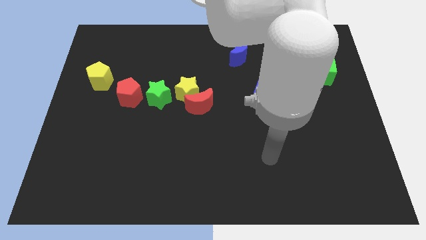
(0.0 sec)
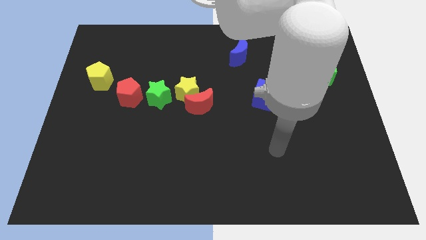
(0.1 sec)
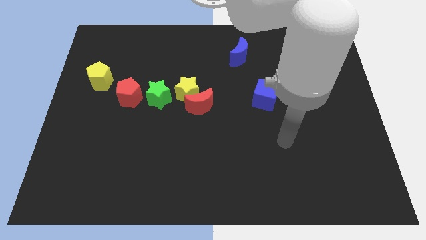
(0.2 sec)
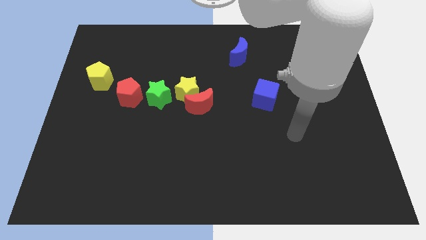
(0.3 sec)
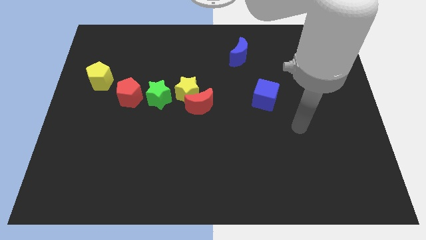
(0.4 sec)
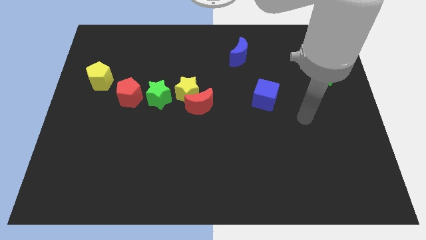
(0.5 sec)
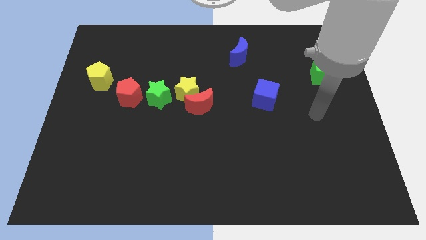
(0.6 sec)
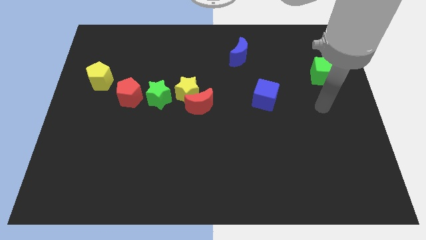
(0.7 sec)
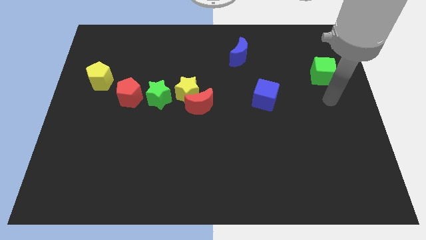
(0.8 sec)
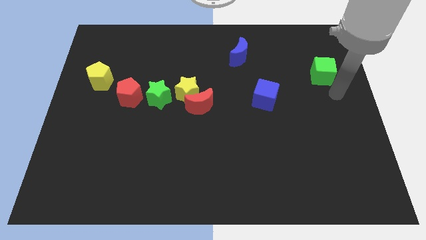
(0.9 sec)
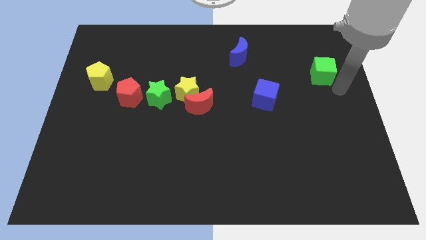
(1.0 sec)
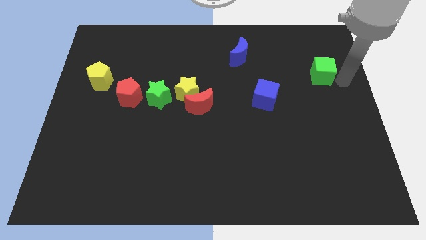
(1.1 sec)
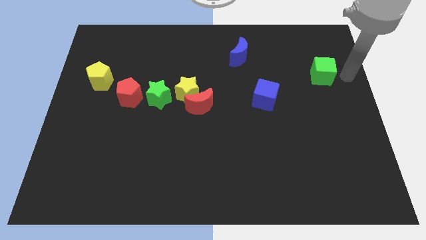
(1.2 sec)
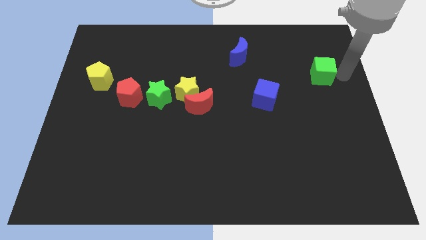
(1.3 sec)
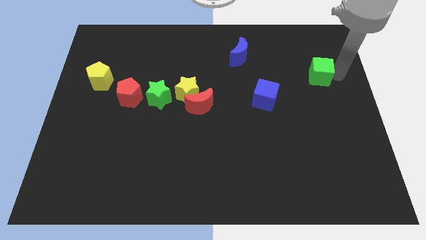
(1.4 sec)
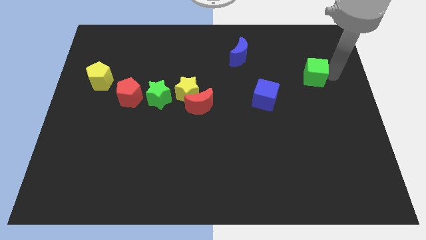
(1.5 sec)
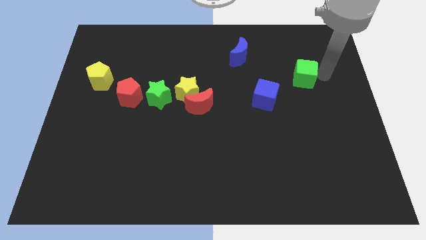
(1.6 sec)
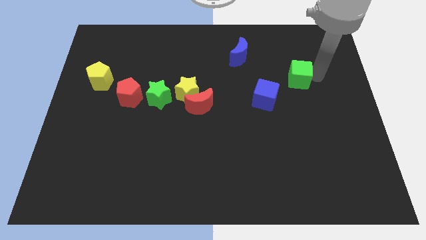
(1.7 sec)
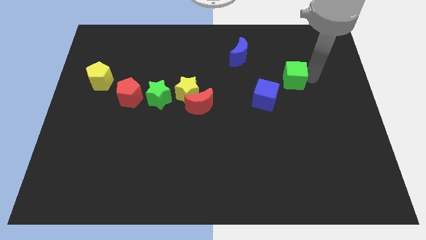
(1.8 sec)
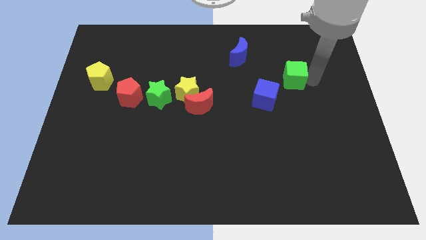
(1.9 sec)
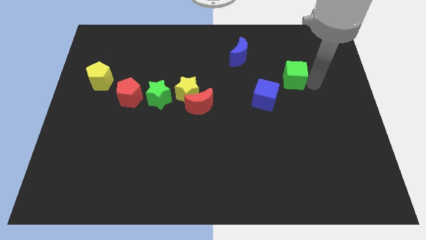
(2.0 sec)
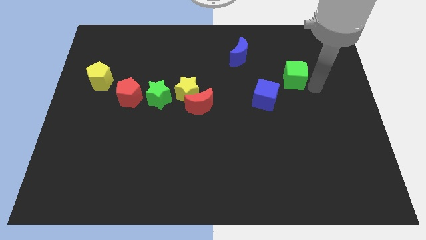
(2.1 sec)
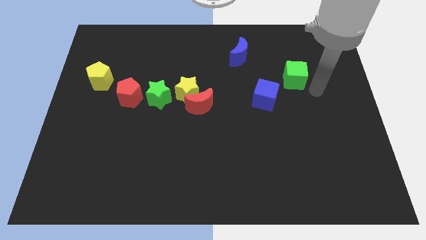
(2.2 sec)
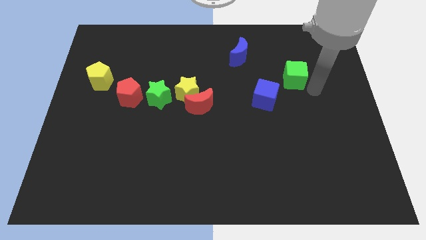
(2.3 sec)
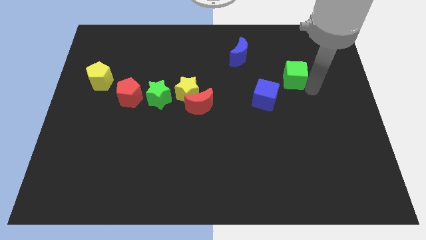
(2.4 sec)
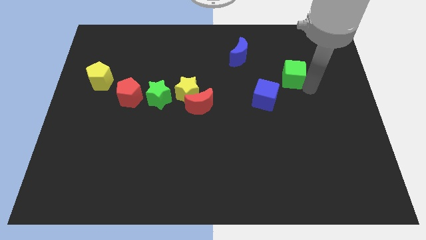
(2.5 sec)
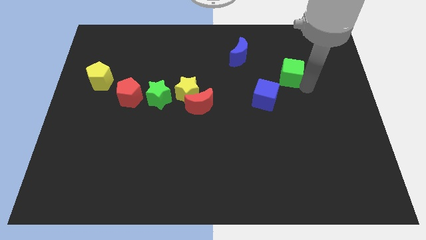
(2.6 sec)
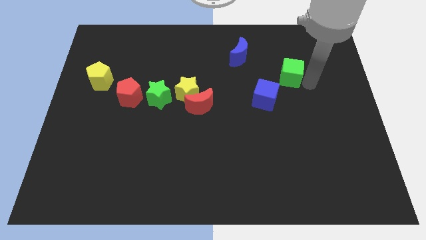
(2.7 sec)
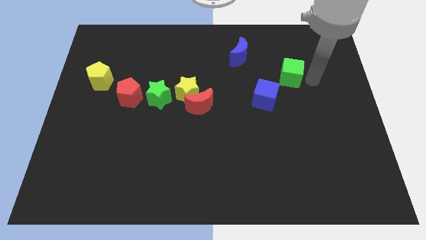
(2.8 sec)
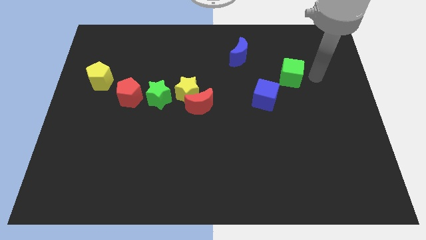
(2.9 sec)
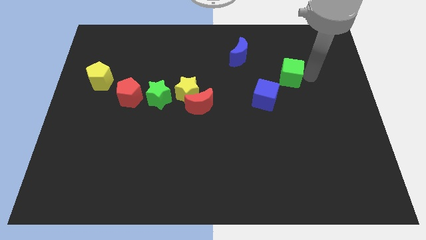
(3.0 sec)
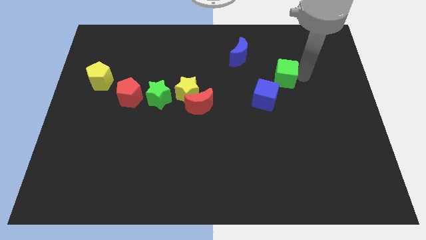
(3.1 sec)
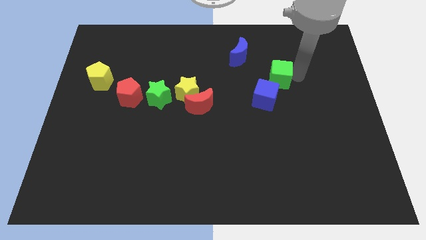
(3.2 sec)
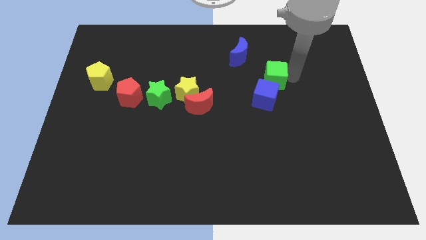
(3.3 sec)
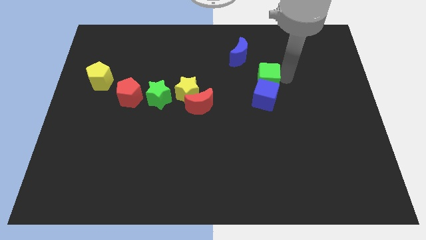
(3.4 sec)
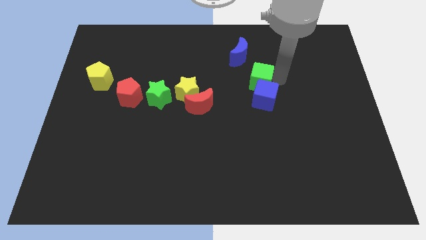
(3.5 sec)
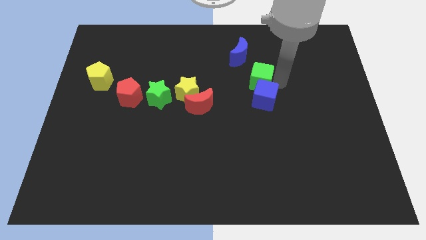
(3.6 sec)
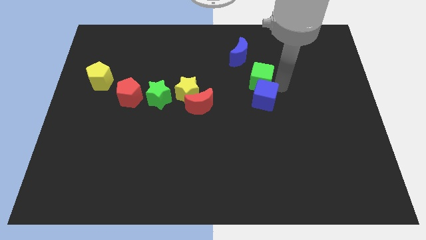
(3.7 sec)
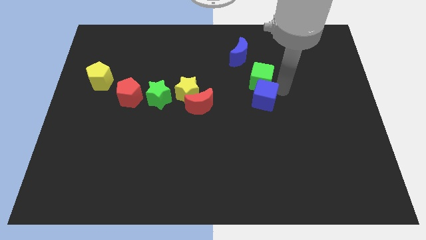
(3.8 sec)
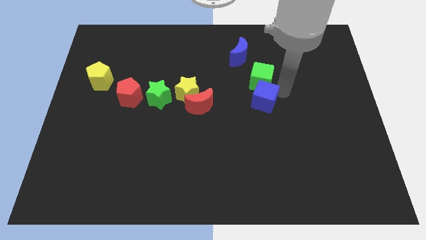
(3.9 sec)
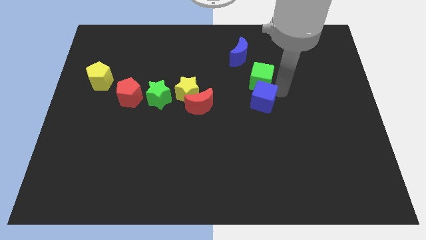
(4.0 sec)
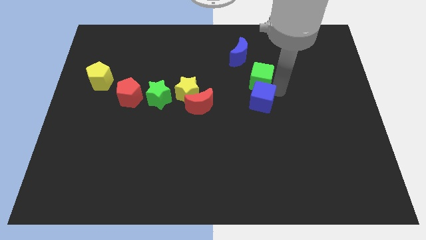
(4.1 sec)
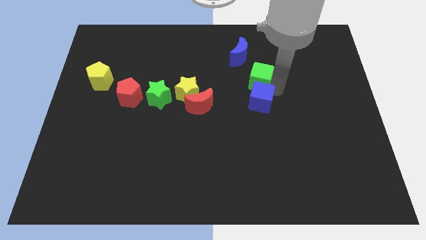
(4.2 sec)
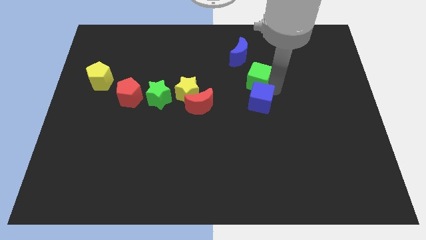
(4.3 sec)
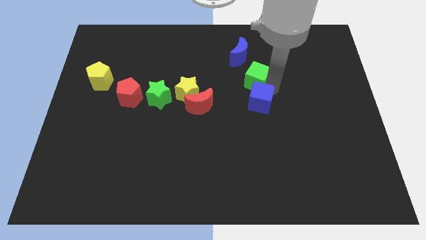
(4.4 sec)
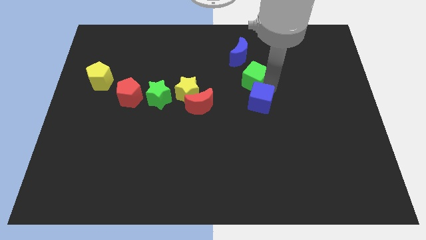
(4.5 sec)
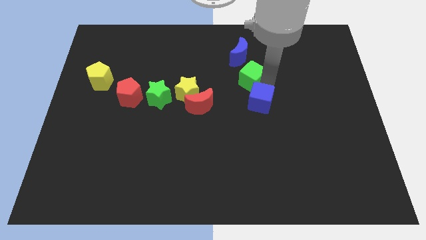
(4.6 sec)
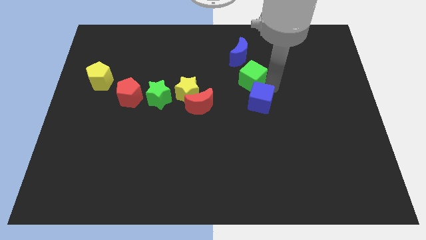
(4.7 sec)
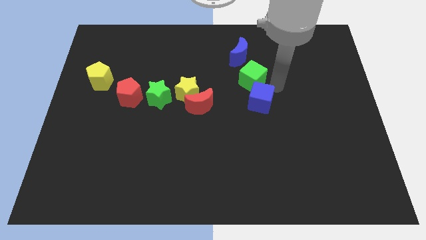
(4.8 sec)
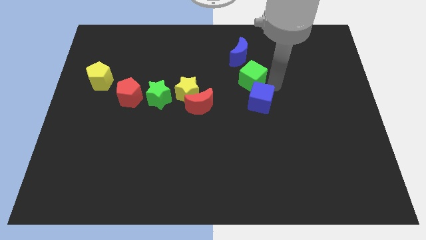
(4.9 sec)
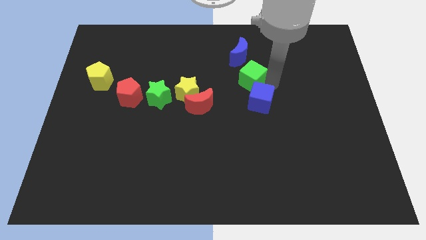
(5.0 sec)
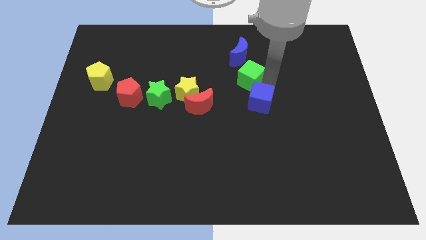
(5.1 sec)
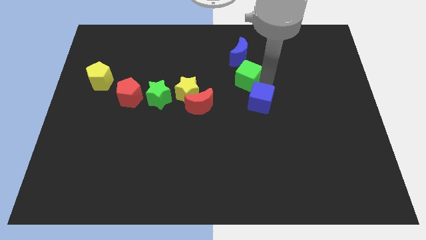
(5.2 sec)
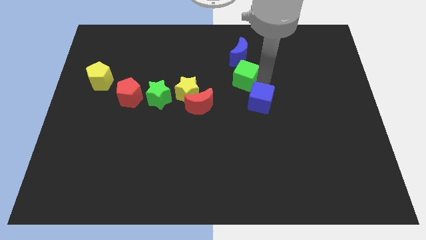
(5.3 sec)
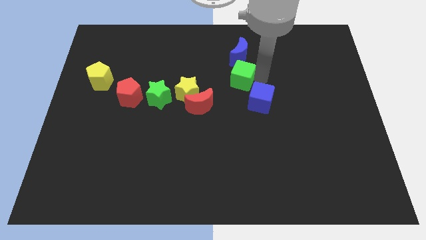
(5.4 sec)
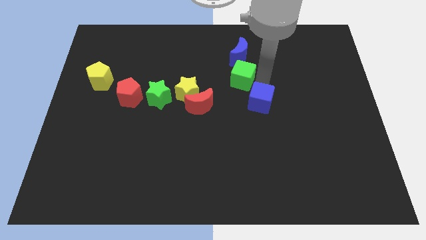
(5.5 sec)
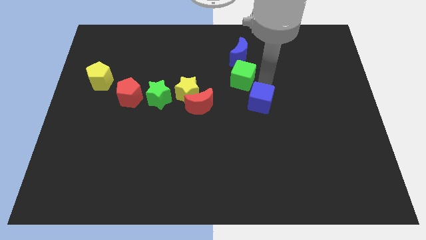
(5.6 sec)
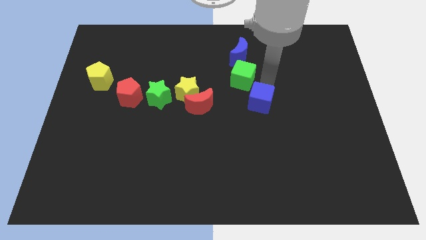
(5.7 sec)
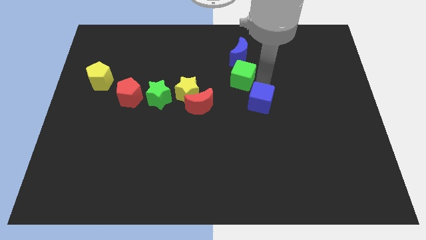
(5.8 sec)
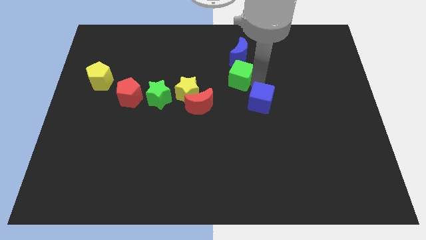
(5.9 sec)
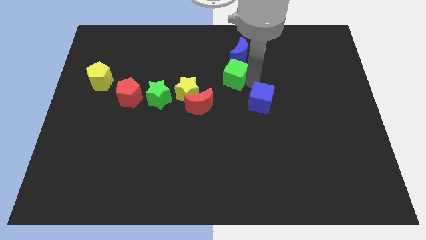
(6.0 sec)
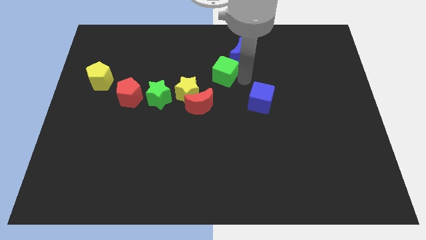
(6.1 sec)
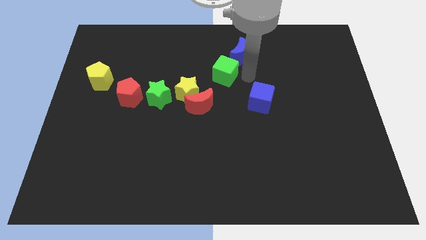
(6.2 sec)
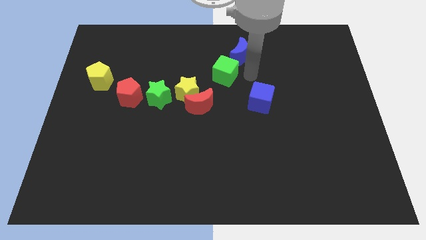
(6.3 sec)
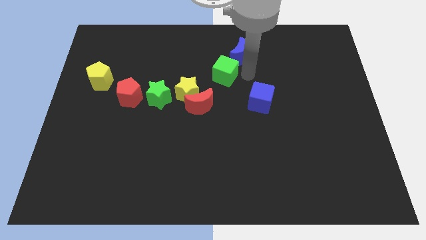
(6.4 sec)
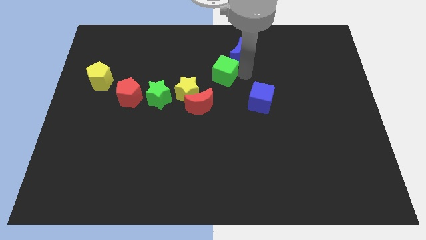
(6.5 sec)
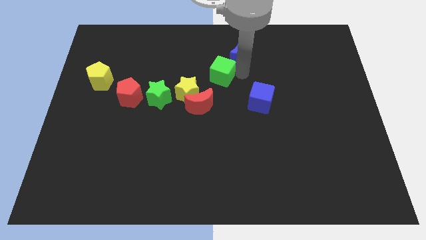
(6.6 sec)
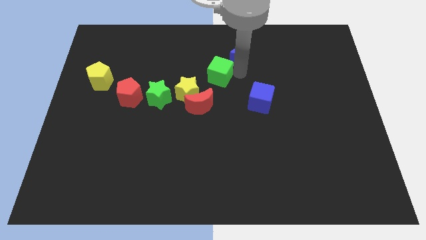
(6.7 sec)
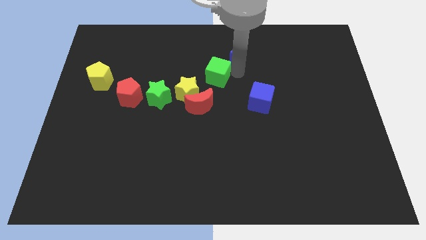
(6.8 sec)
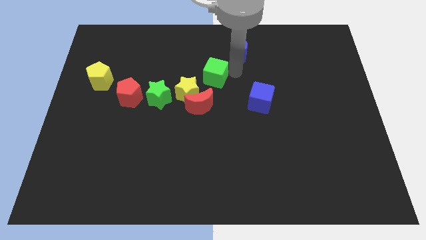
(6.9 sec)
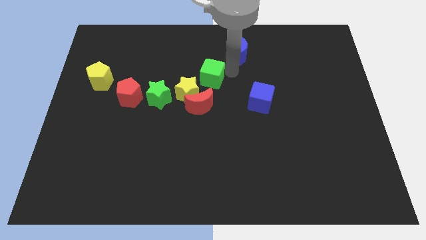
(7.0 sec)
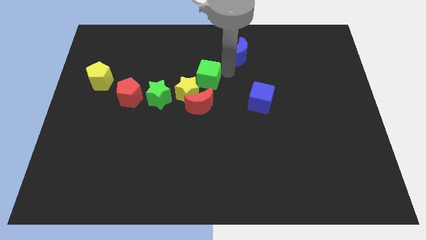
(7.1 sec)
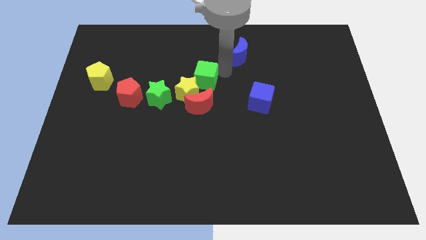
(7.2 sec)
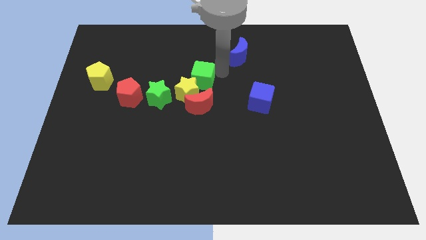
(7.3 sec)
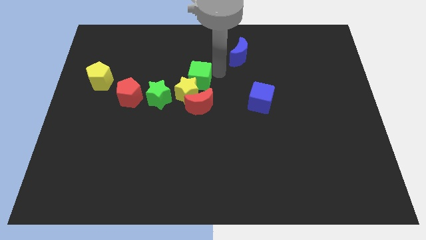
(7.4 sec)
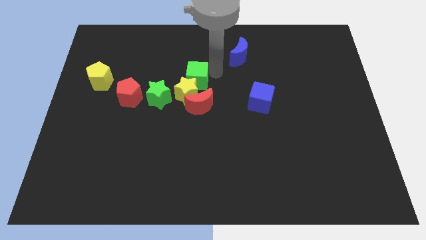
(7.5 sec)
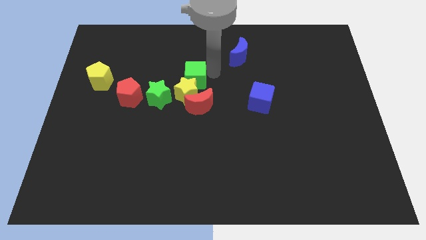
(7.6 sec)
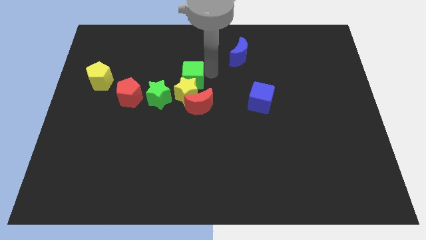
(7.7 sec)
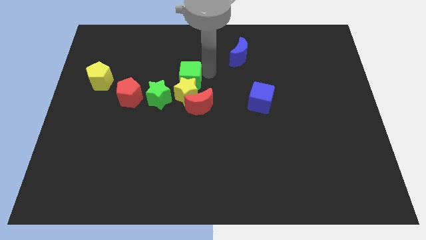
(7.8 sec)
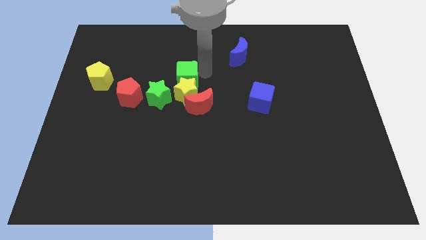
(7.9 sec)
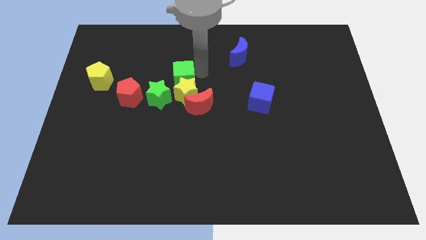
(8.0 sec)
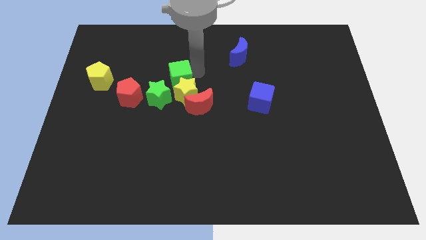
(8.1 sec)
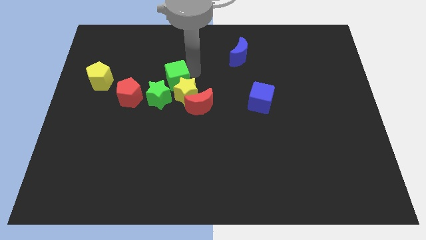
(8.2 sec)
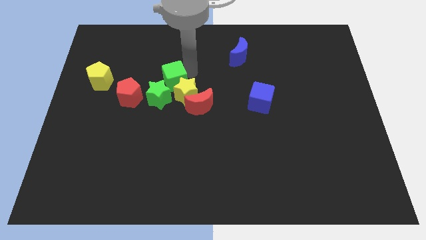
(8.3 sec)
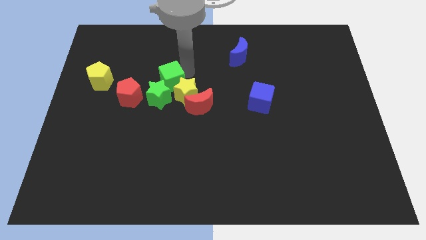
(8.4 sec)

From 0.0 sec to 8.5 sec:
push the green cube close to the green star
